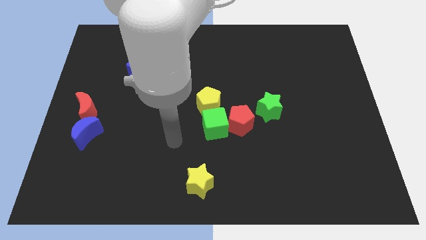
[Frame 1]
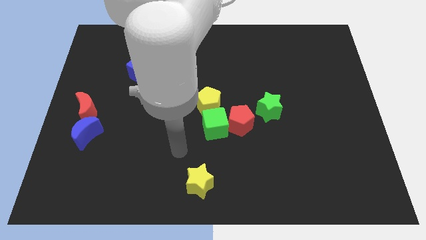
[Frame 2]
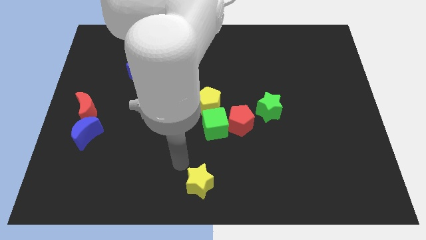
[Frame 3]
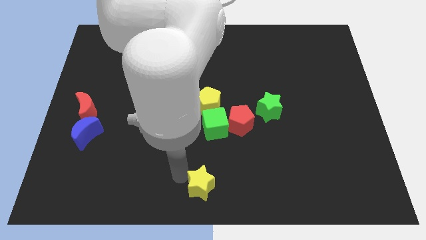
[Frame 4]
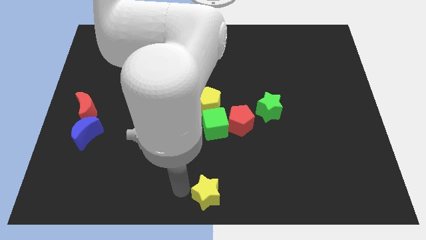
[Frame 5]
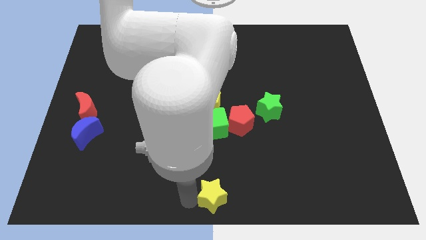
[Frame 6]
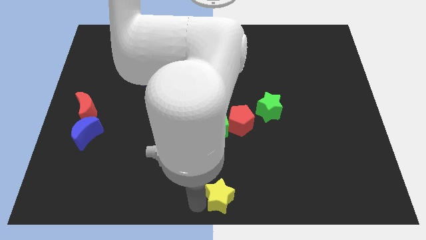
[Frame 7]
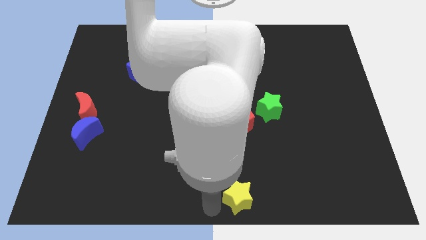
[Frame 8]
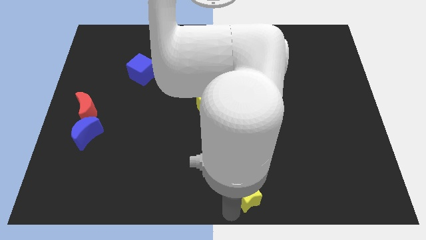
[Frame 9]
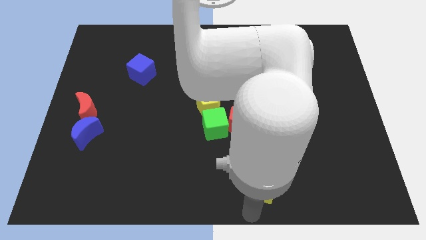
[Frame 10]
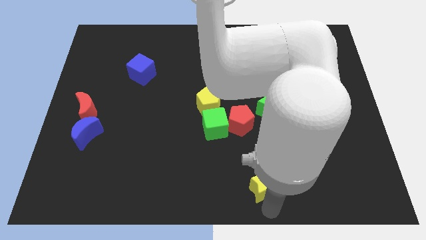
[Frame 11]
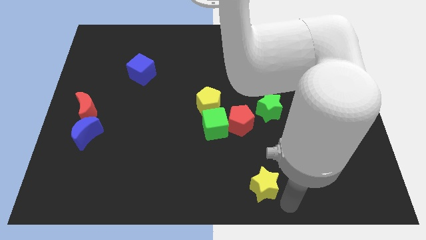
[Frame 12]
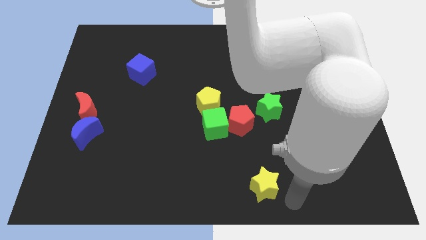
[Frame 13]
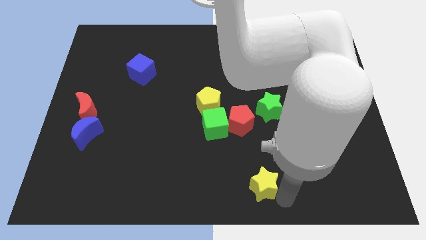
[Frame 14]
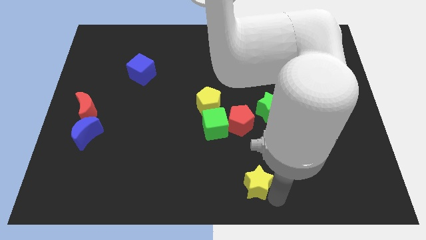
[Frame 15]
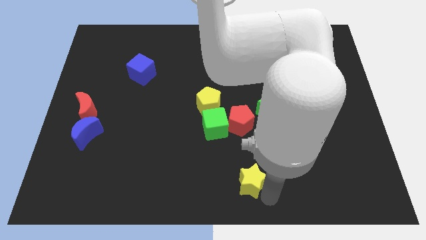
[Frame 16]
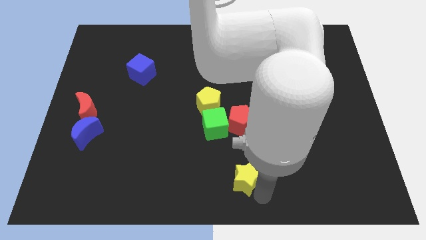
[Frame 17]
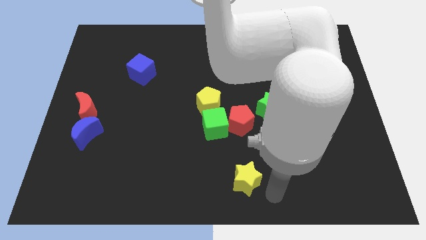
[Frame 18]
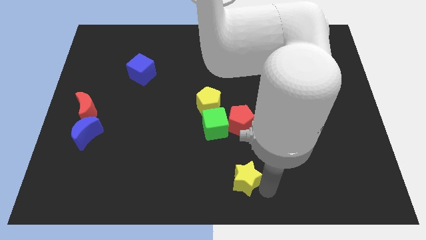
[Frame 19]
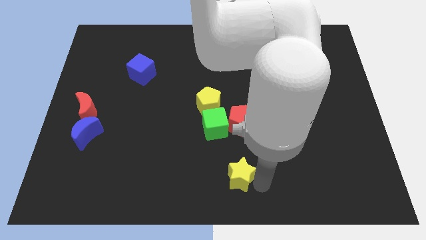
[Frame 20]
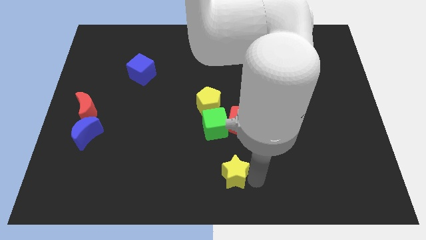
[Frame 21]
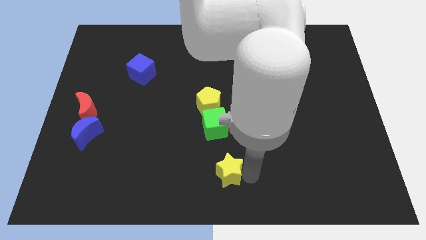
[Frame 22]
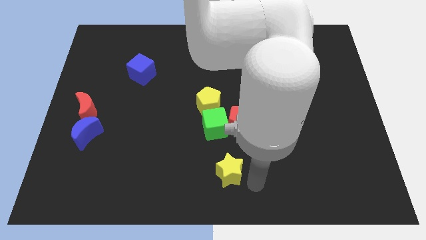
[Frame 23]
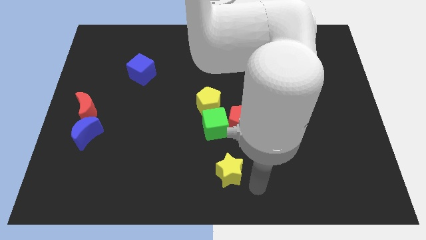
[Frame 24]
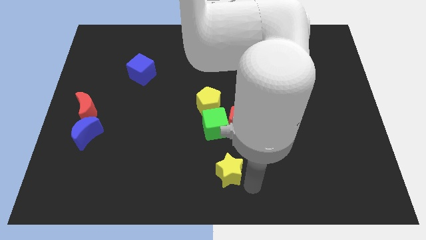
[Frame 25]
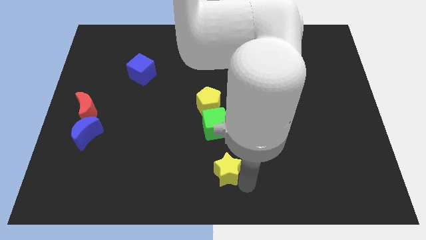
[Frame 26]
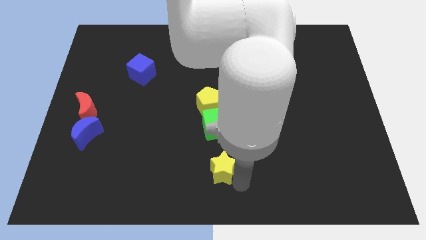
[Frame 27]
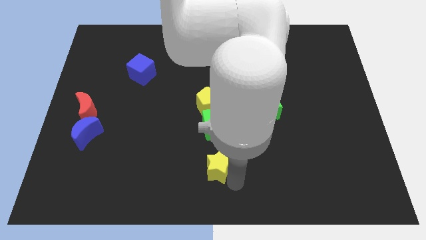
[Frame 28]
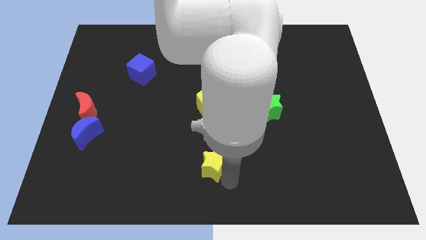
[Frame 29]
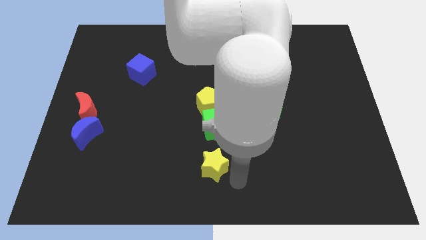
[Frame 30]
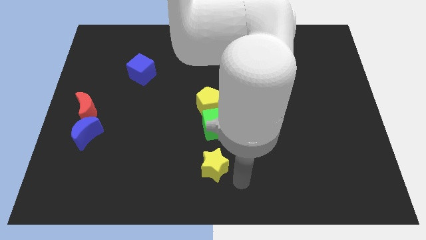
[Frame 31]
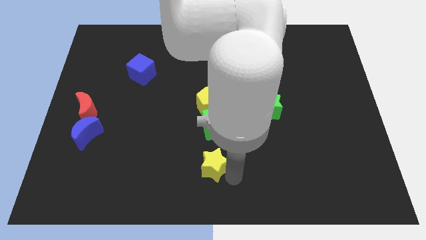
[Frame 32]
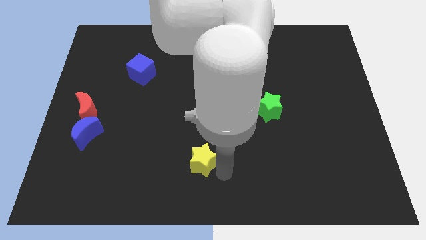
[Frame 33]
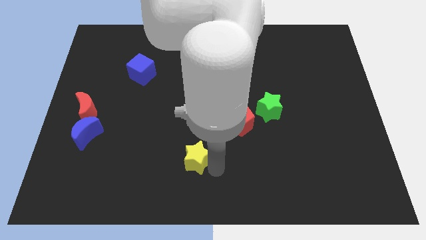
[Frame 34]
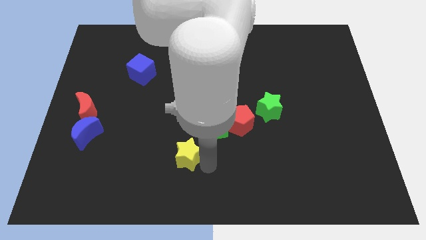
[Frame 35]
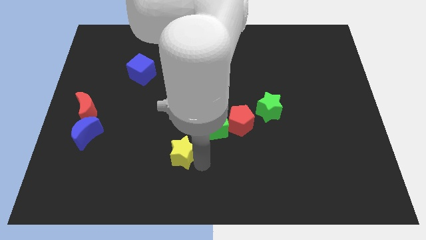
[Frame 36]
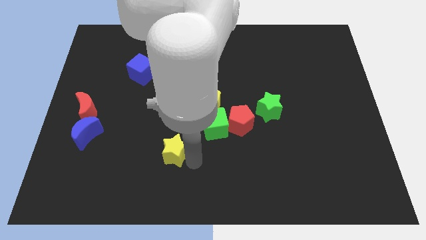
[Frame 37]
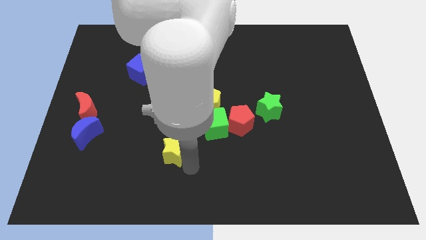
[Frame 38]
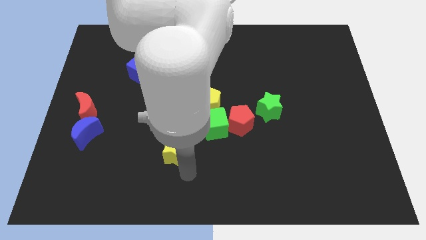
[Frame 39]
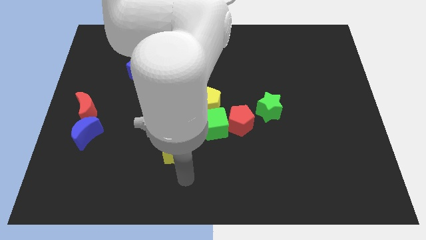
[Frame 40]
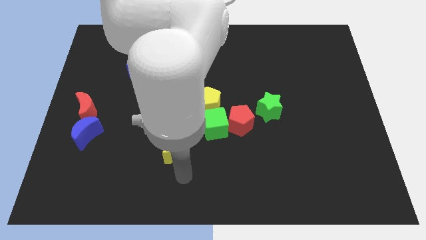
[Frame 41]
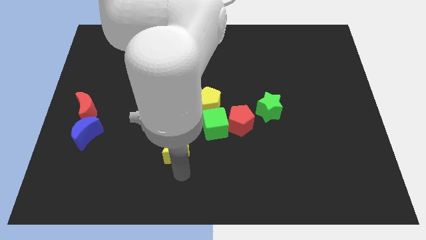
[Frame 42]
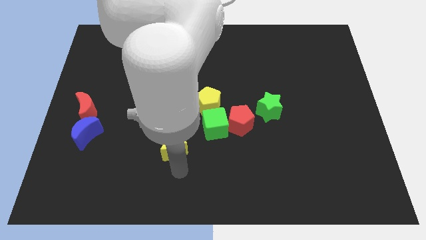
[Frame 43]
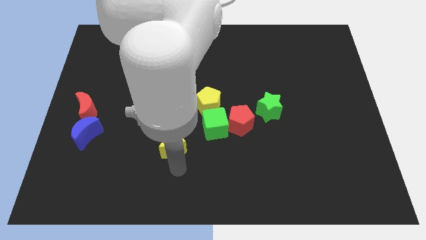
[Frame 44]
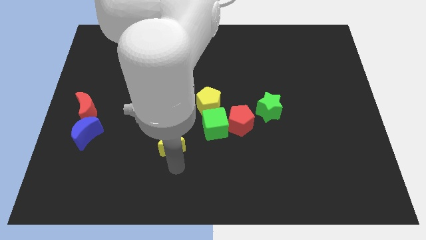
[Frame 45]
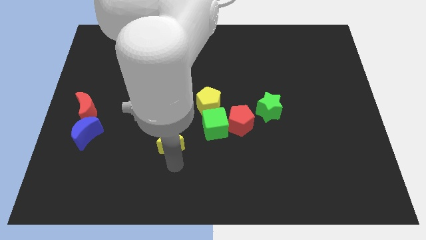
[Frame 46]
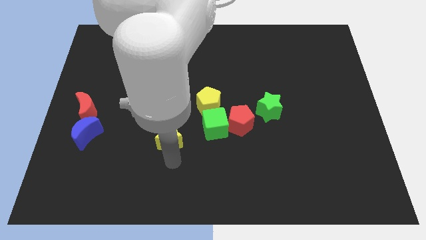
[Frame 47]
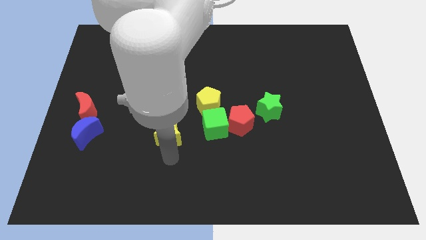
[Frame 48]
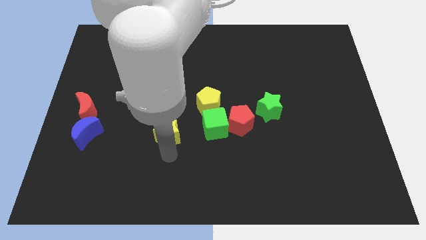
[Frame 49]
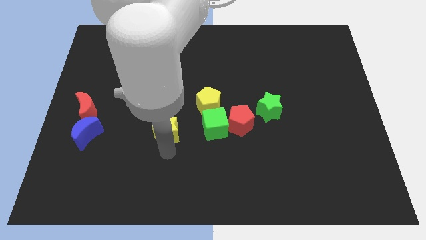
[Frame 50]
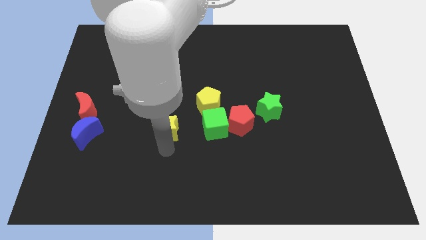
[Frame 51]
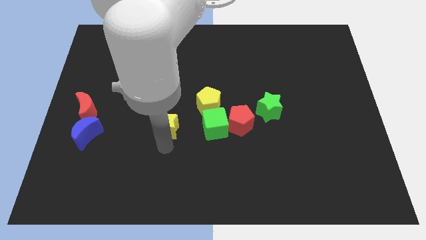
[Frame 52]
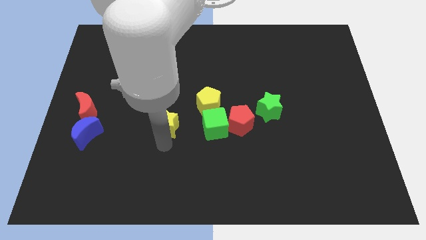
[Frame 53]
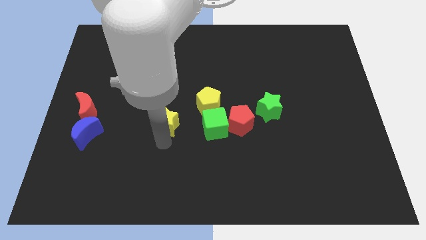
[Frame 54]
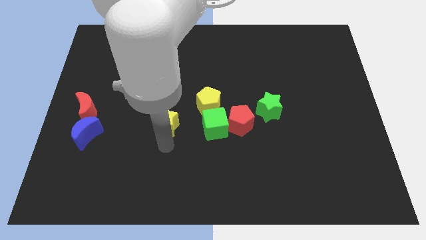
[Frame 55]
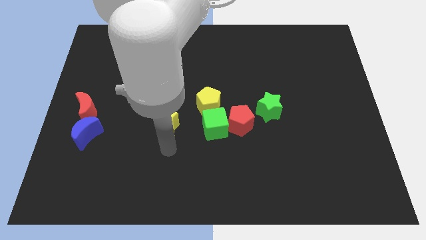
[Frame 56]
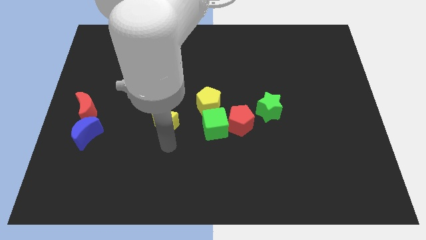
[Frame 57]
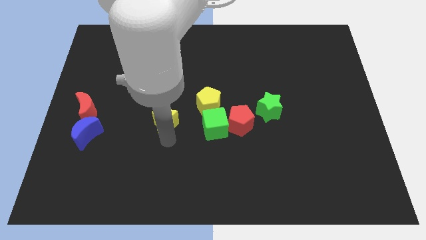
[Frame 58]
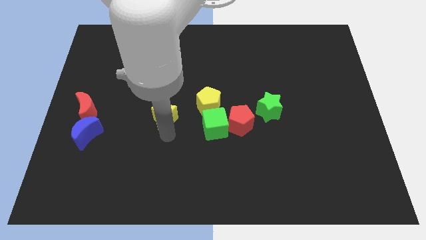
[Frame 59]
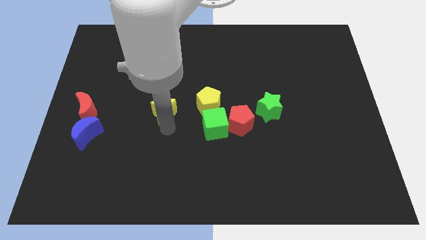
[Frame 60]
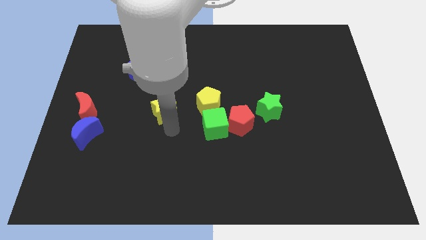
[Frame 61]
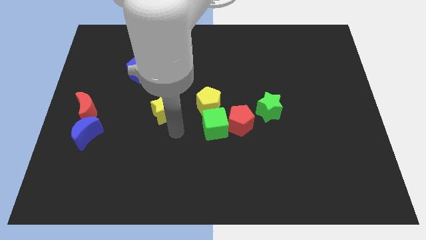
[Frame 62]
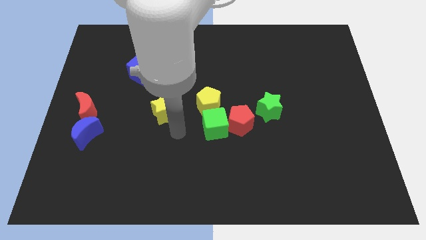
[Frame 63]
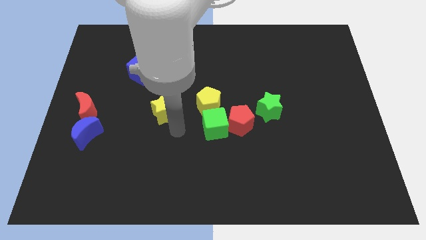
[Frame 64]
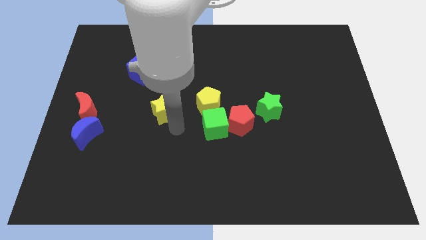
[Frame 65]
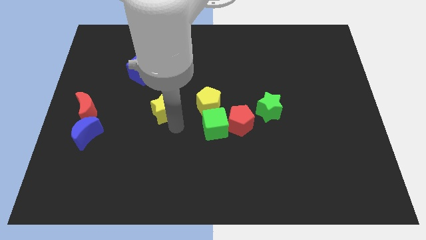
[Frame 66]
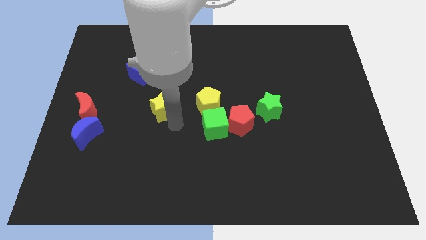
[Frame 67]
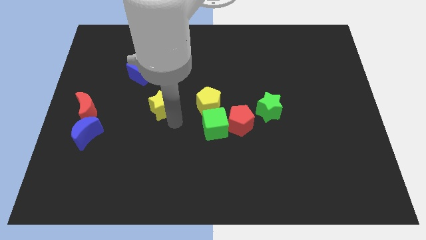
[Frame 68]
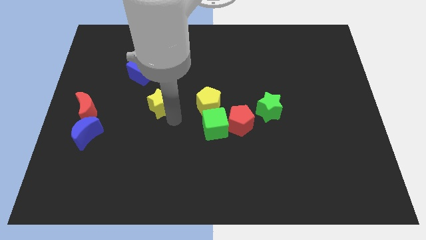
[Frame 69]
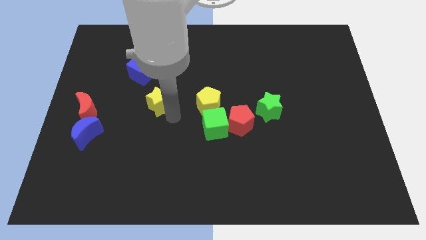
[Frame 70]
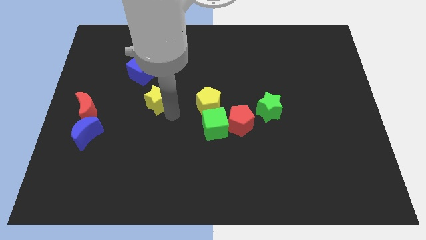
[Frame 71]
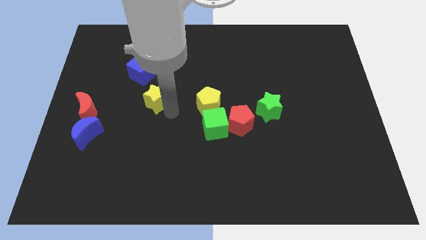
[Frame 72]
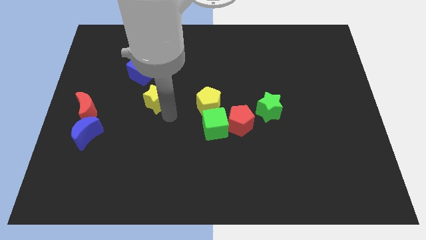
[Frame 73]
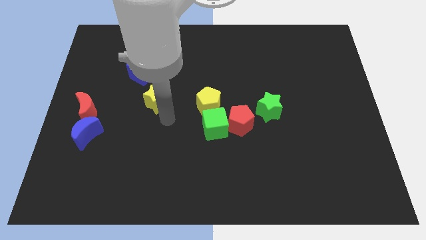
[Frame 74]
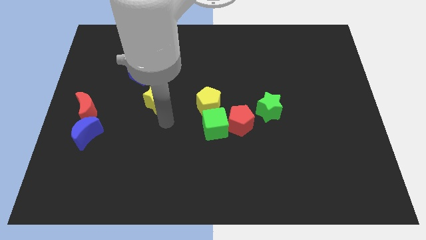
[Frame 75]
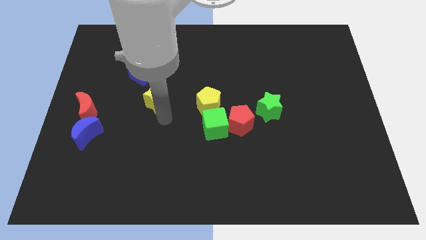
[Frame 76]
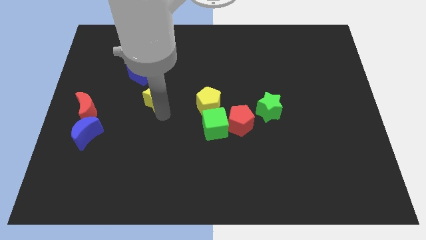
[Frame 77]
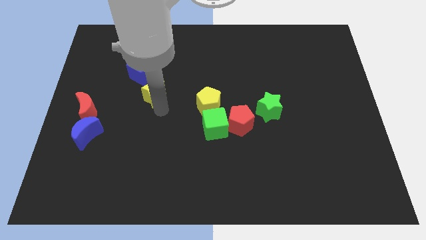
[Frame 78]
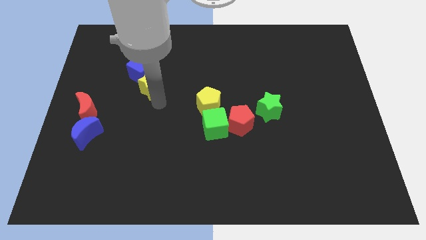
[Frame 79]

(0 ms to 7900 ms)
push the yellow star next to the blue cube
